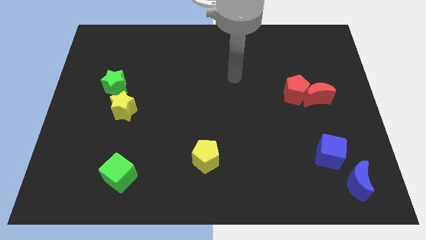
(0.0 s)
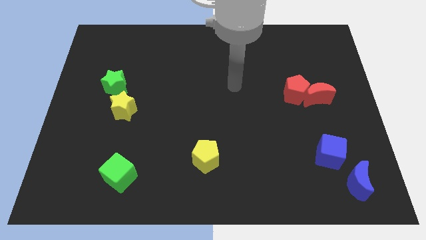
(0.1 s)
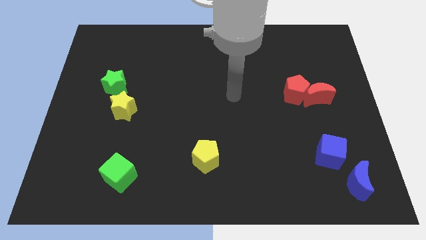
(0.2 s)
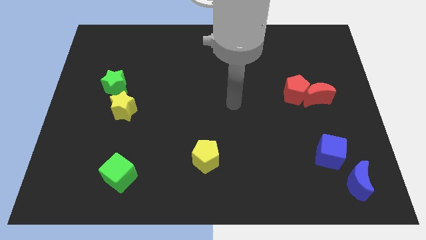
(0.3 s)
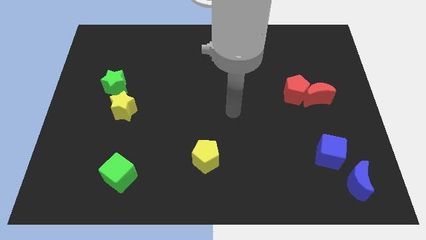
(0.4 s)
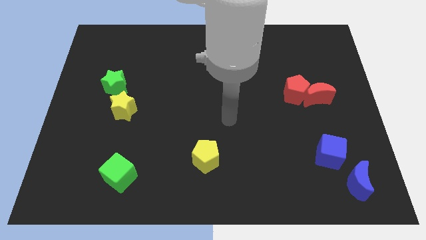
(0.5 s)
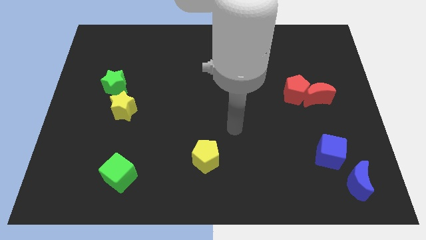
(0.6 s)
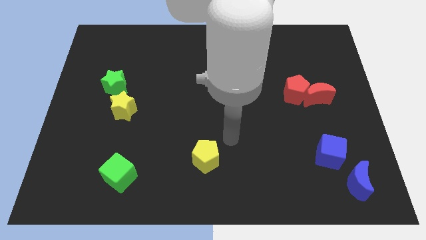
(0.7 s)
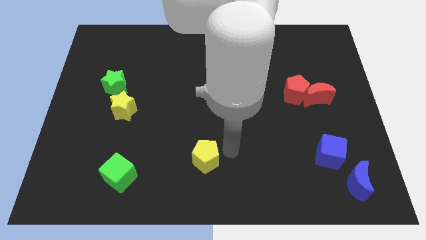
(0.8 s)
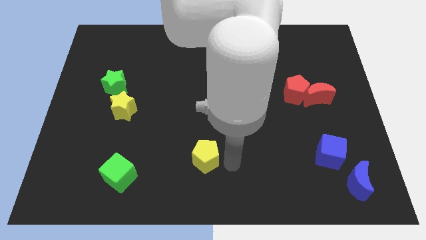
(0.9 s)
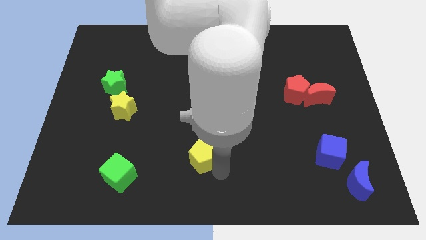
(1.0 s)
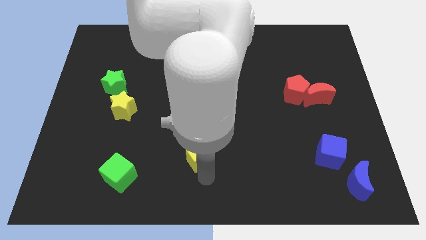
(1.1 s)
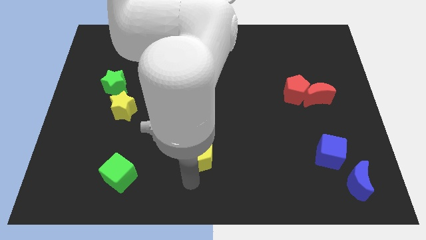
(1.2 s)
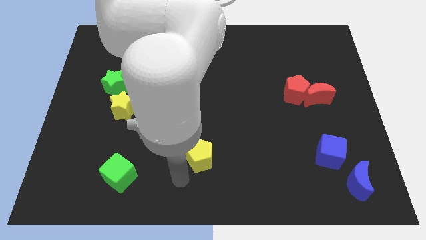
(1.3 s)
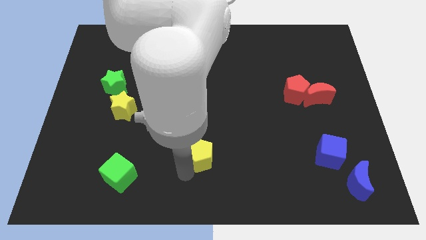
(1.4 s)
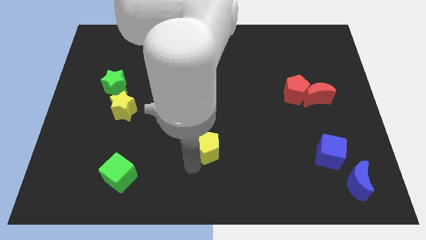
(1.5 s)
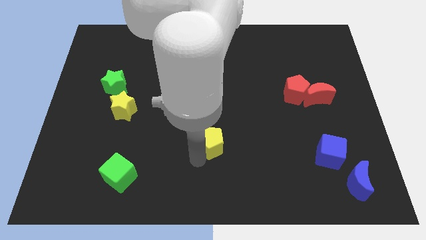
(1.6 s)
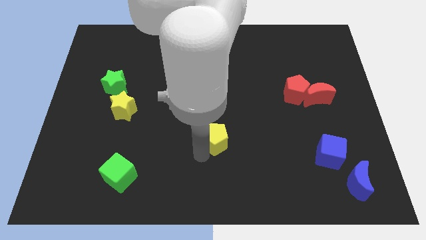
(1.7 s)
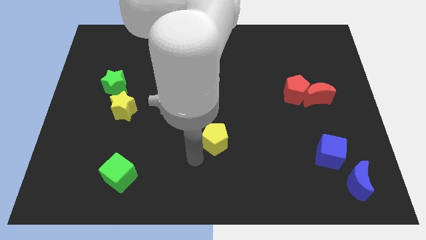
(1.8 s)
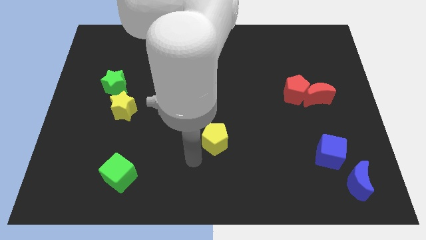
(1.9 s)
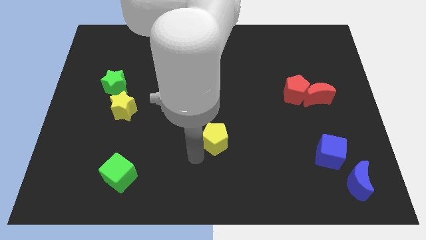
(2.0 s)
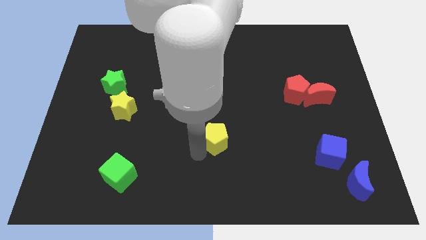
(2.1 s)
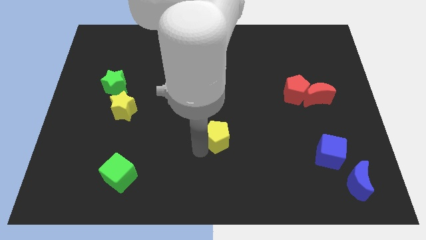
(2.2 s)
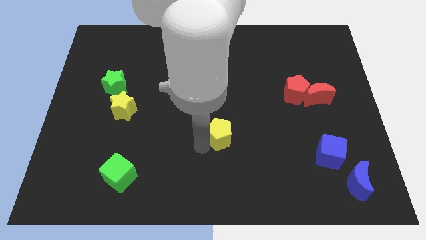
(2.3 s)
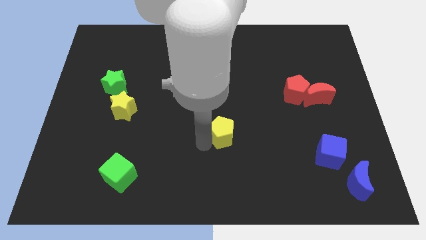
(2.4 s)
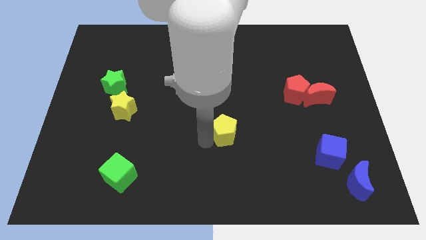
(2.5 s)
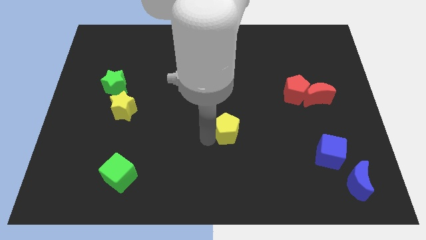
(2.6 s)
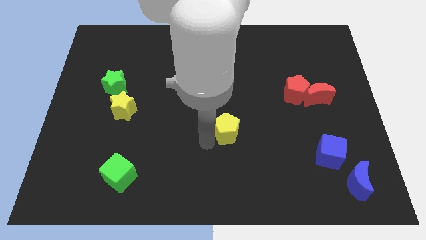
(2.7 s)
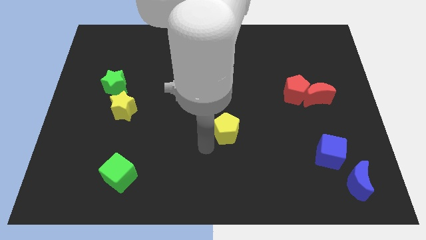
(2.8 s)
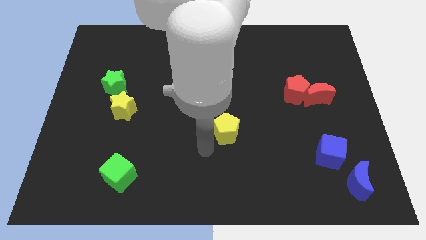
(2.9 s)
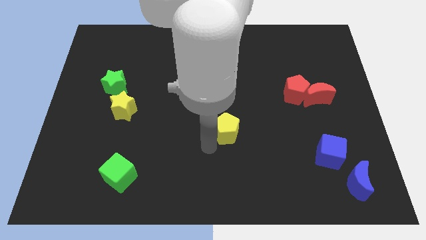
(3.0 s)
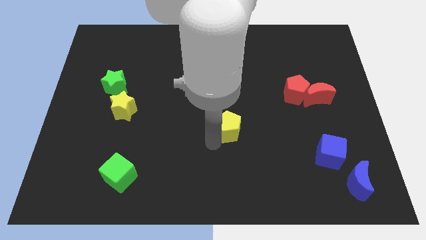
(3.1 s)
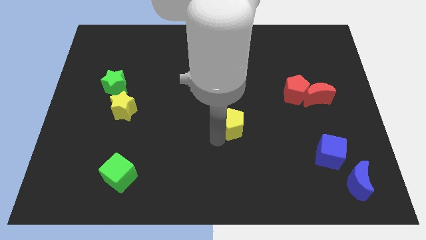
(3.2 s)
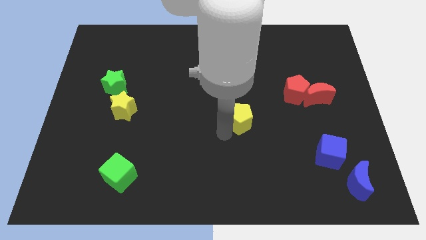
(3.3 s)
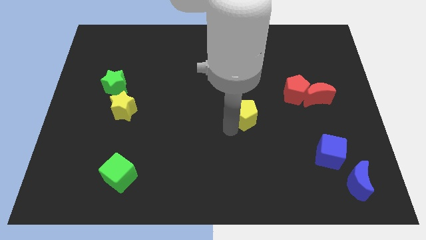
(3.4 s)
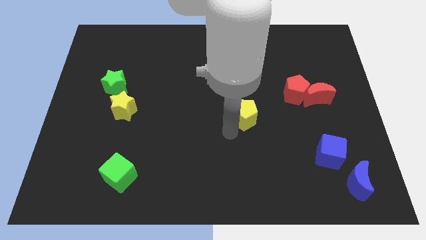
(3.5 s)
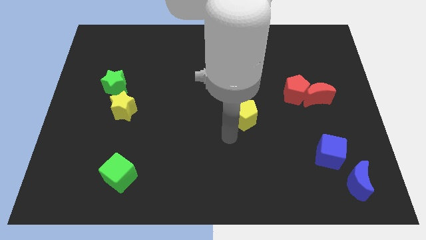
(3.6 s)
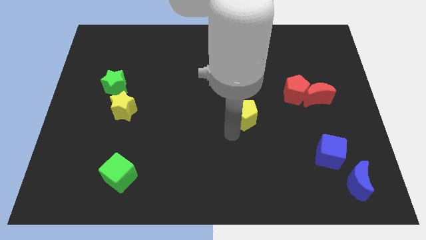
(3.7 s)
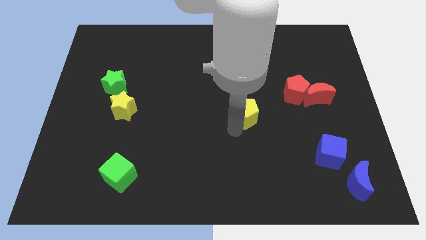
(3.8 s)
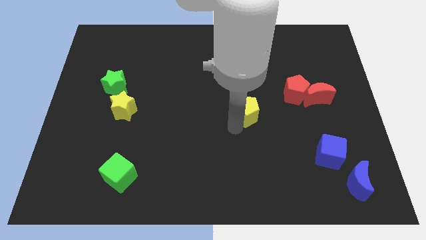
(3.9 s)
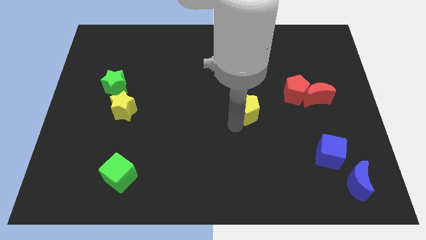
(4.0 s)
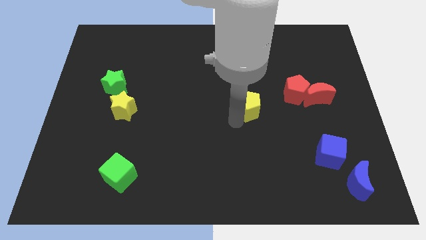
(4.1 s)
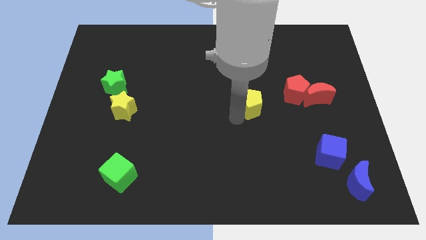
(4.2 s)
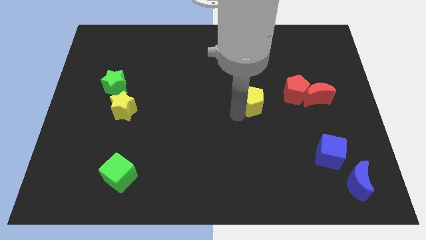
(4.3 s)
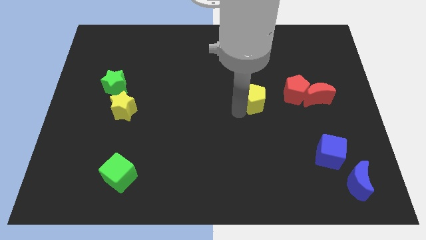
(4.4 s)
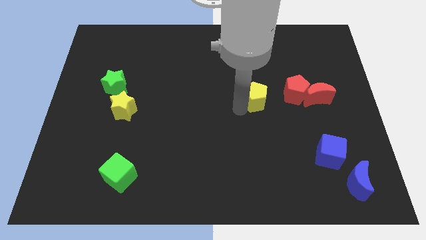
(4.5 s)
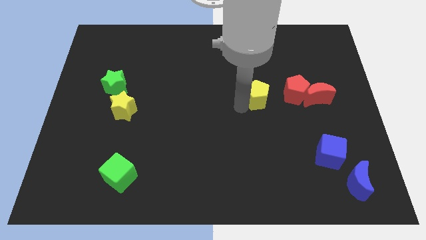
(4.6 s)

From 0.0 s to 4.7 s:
move the yellow pentagon upwards and then right

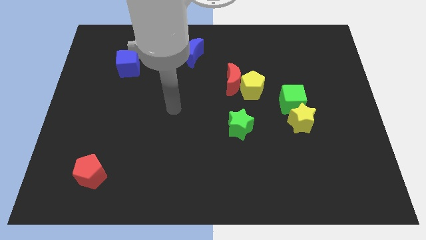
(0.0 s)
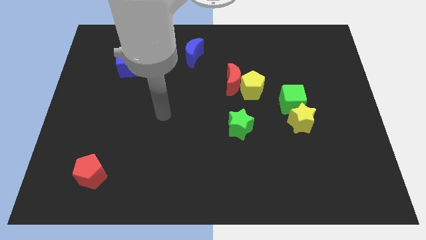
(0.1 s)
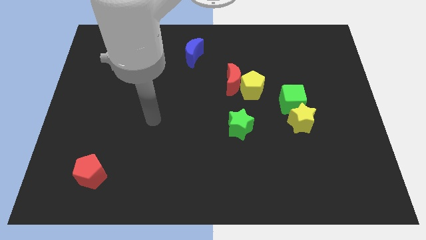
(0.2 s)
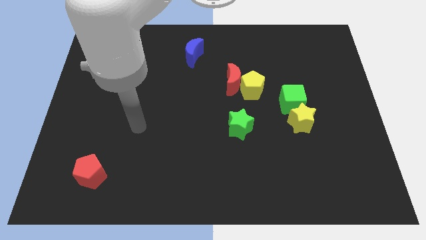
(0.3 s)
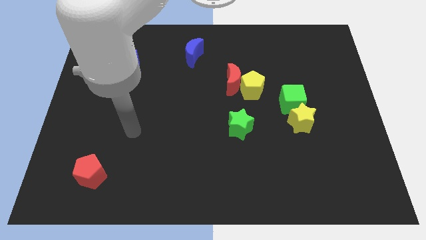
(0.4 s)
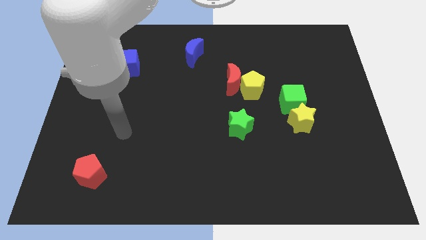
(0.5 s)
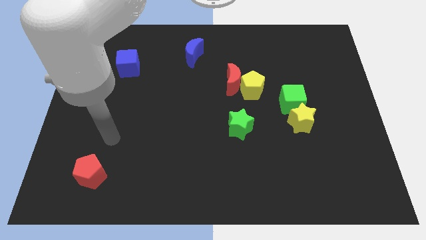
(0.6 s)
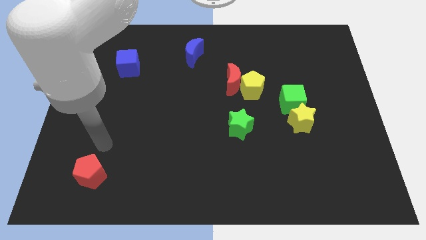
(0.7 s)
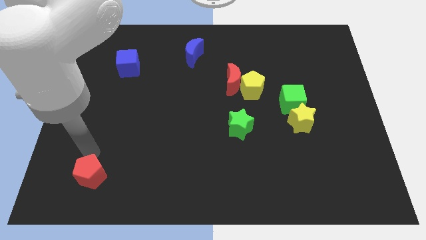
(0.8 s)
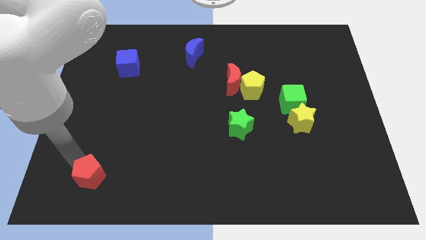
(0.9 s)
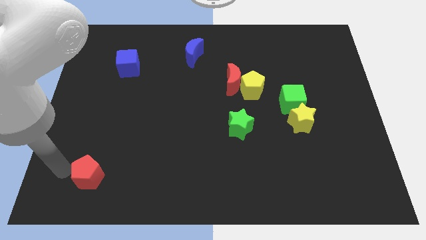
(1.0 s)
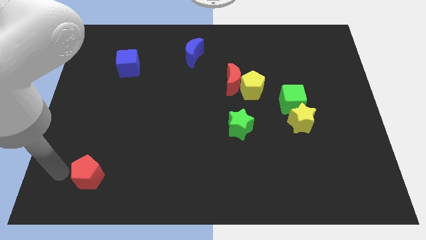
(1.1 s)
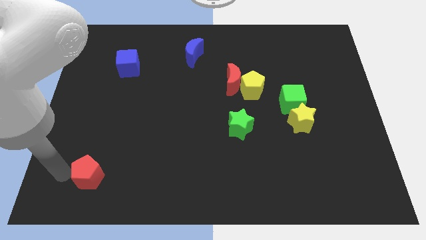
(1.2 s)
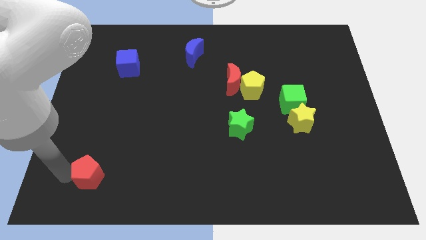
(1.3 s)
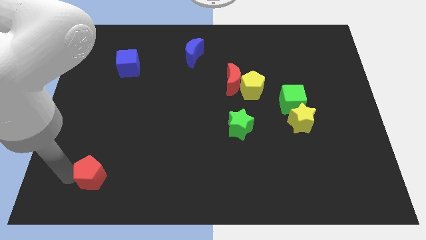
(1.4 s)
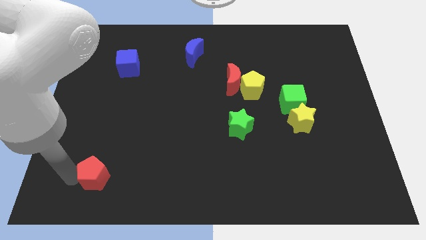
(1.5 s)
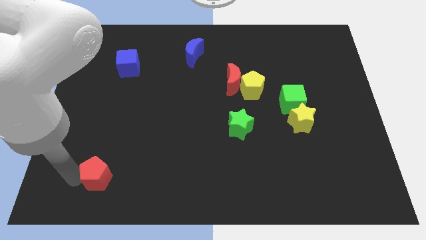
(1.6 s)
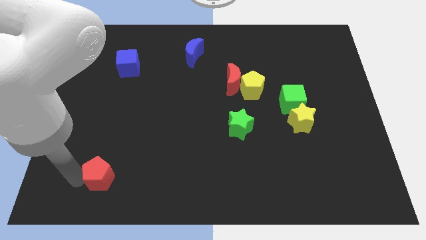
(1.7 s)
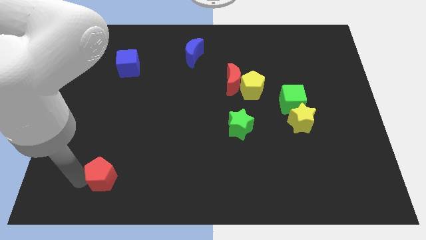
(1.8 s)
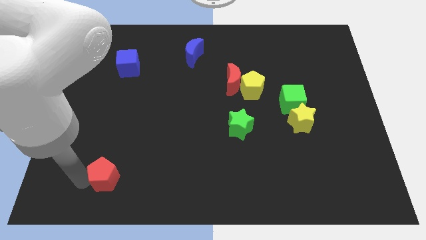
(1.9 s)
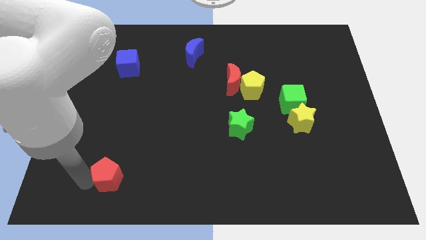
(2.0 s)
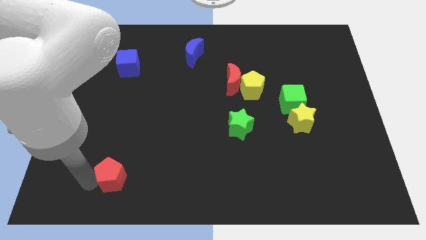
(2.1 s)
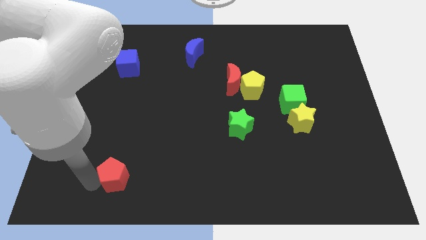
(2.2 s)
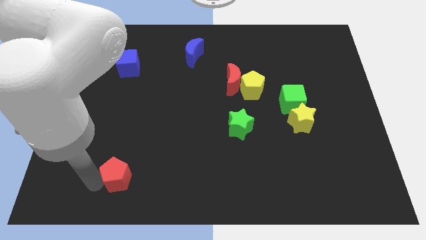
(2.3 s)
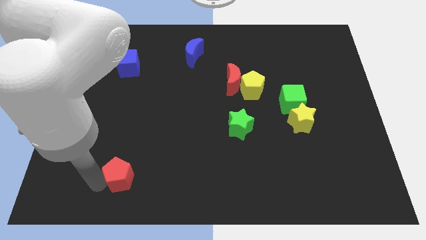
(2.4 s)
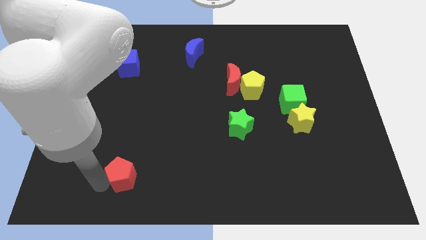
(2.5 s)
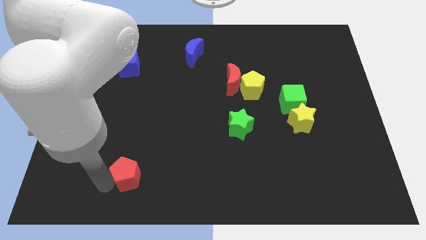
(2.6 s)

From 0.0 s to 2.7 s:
slide the red pentagon to the right a bit

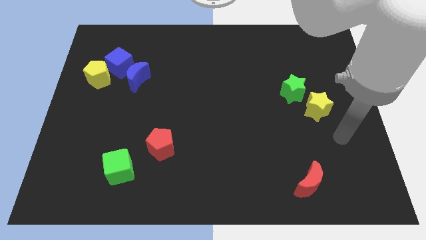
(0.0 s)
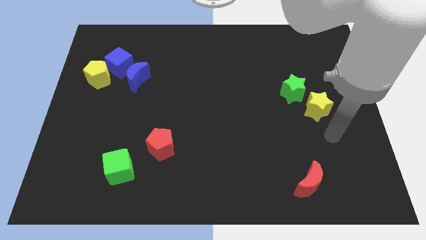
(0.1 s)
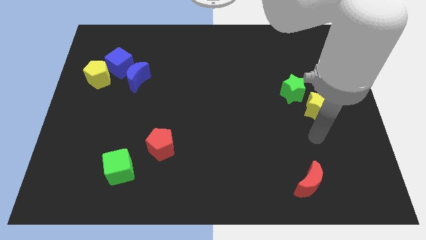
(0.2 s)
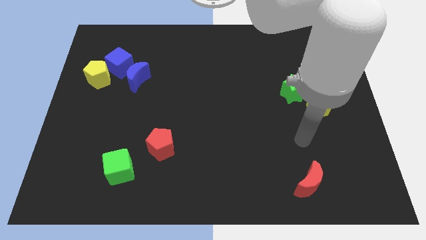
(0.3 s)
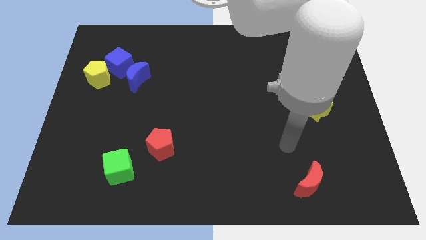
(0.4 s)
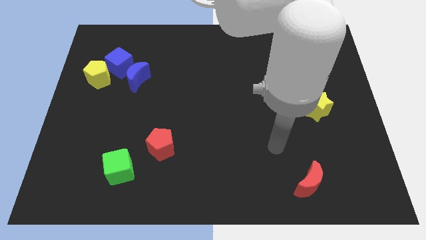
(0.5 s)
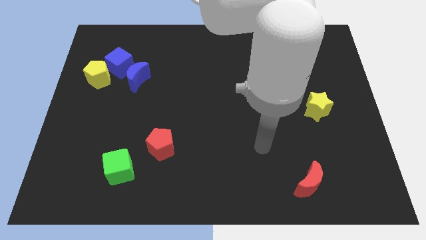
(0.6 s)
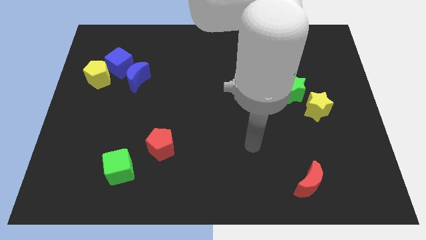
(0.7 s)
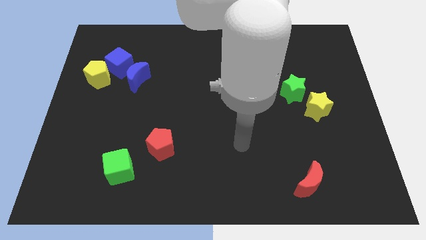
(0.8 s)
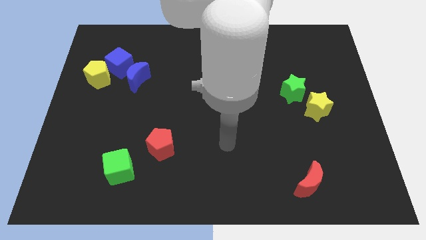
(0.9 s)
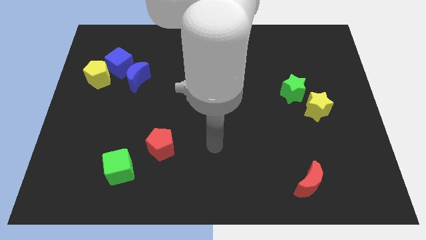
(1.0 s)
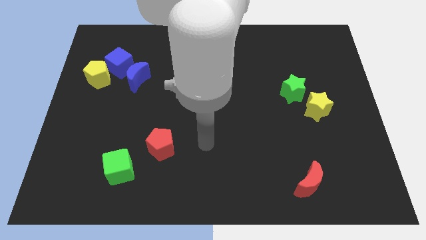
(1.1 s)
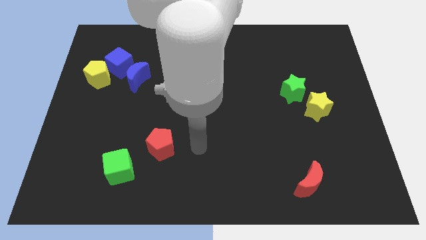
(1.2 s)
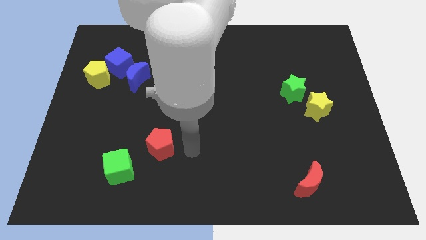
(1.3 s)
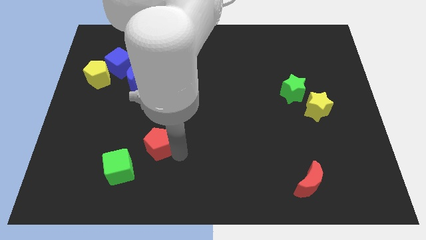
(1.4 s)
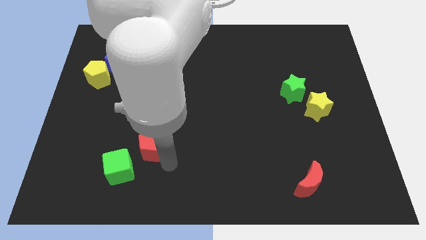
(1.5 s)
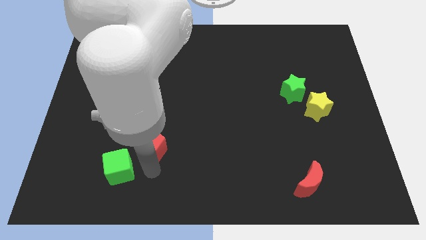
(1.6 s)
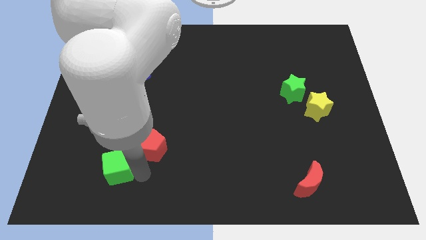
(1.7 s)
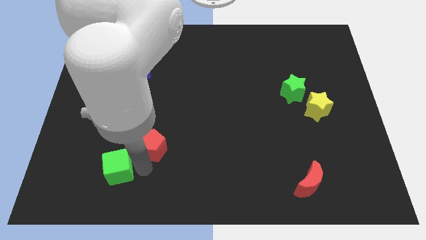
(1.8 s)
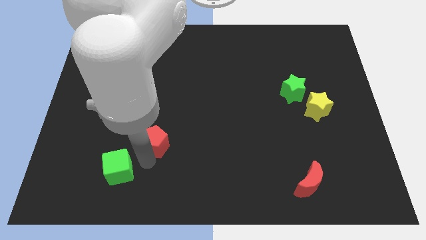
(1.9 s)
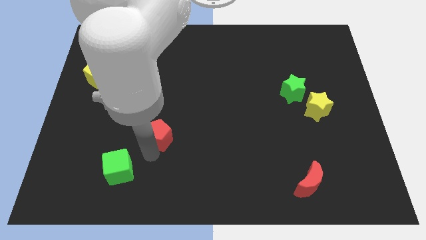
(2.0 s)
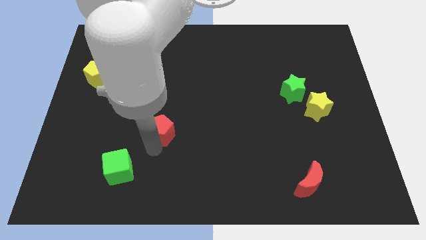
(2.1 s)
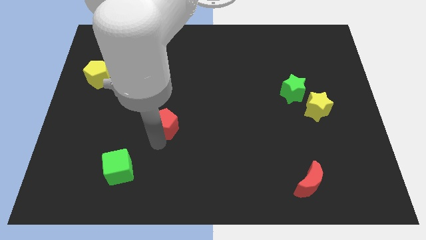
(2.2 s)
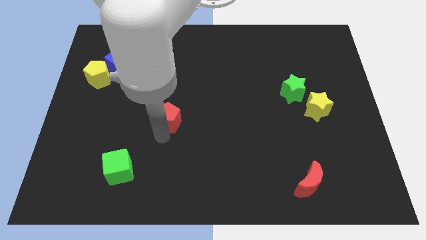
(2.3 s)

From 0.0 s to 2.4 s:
push the red pentagon upwards a little
